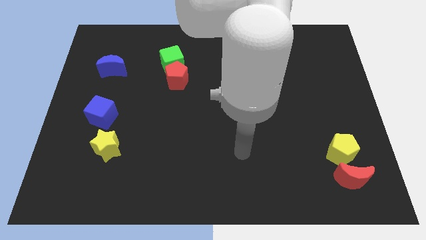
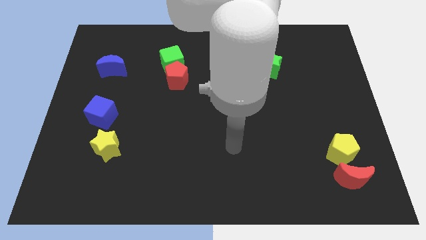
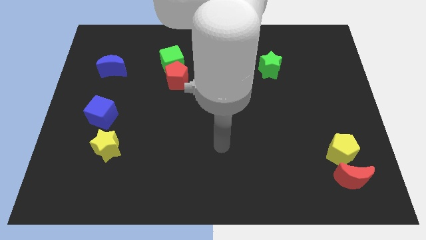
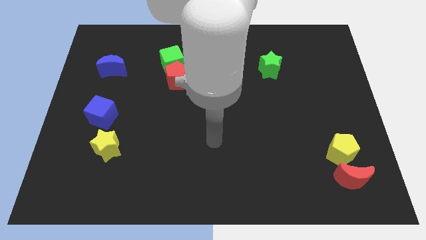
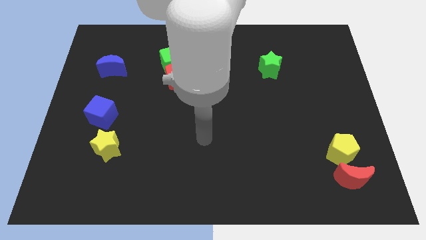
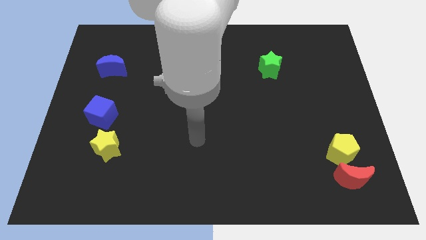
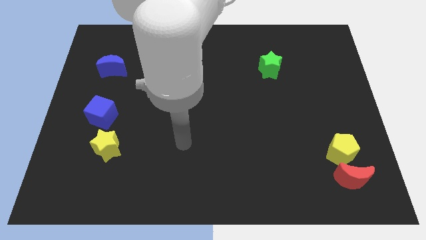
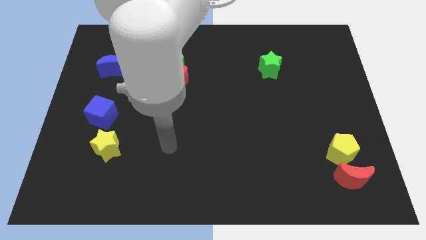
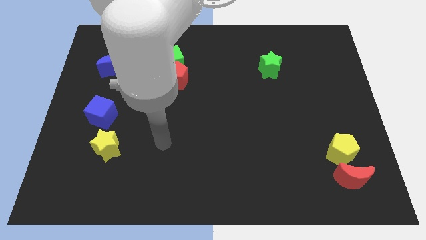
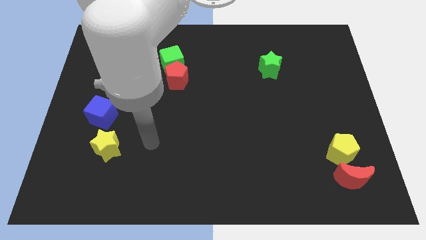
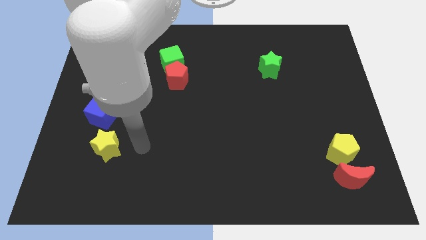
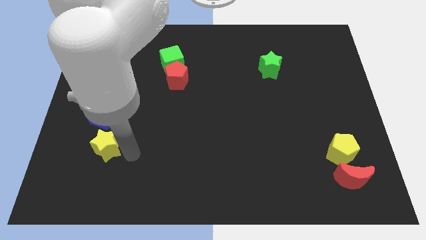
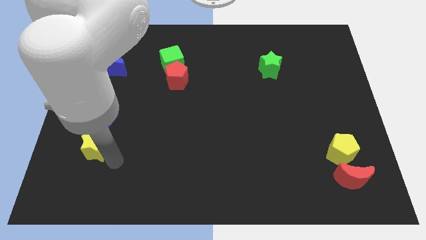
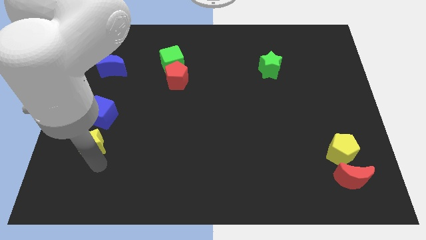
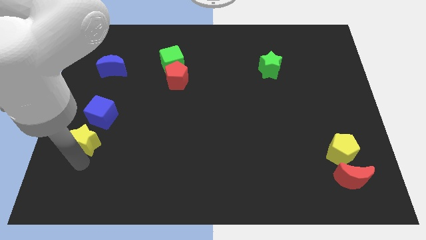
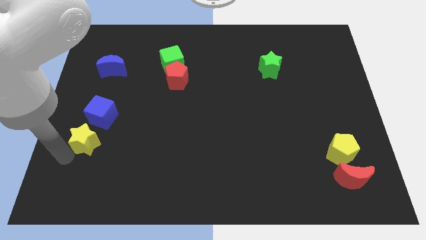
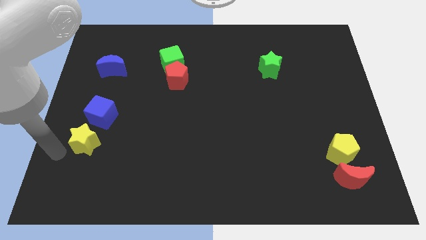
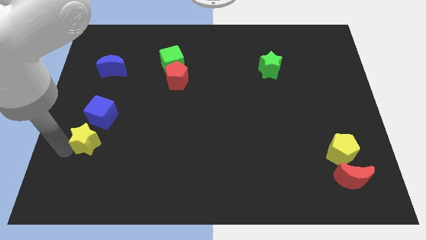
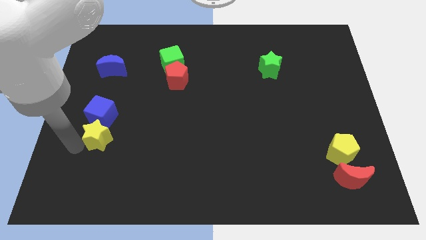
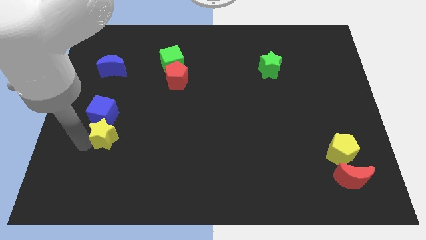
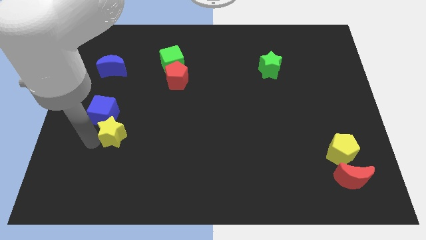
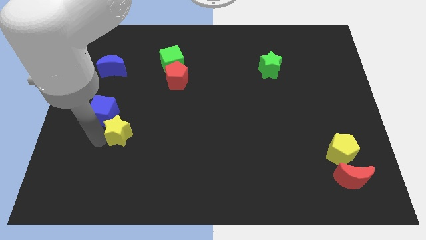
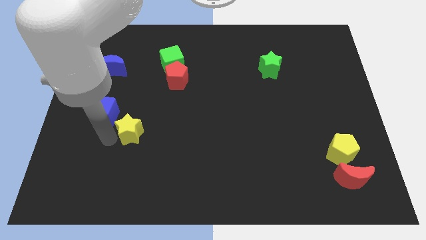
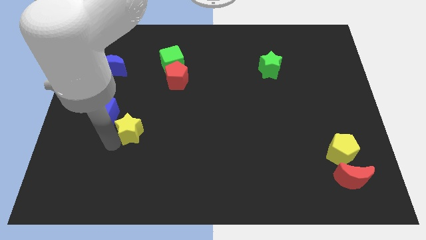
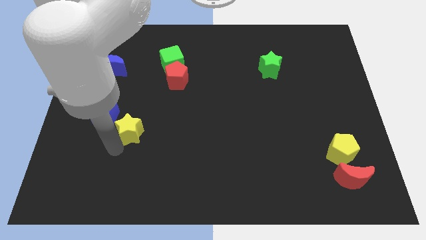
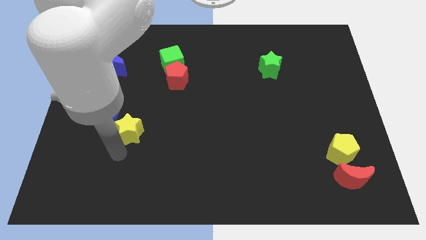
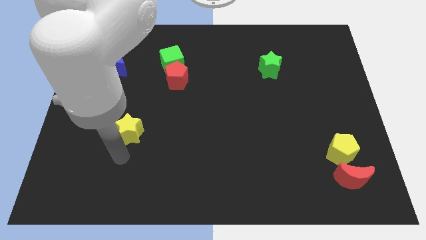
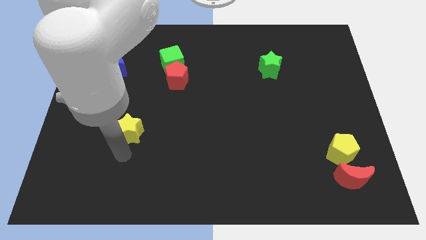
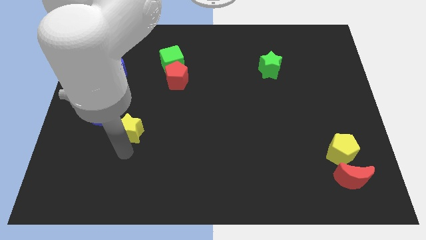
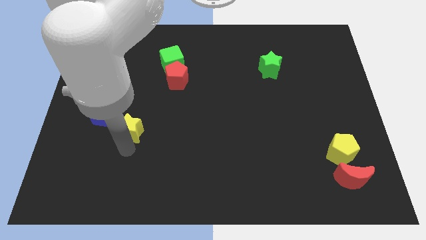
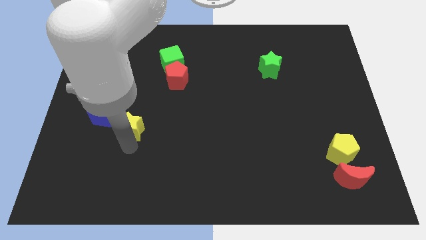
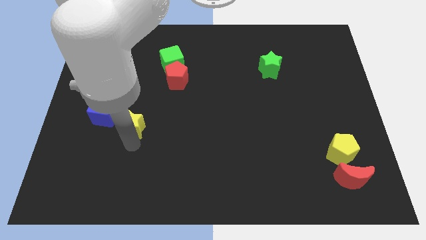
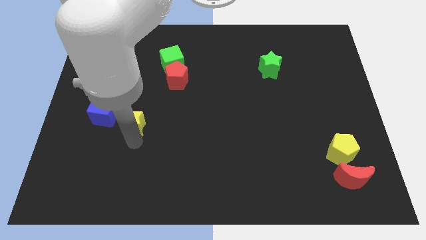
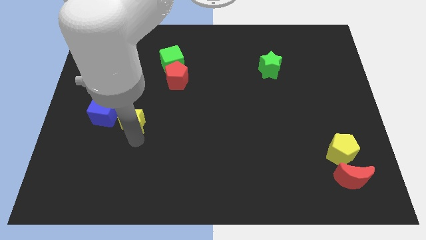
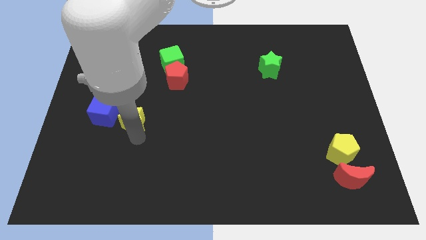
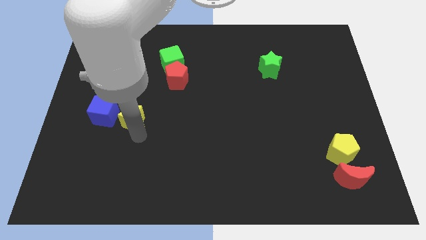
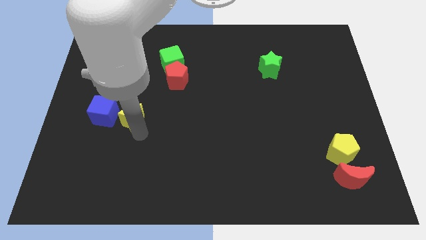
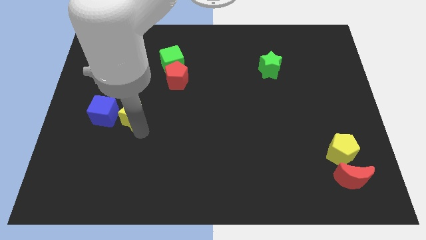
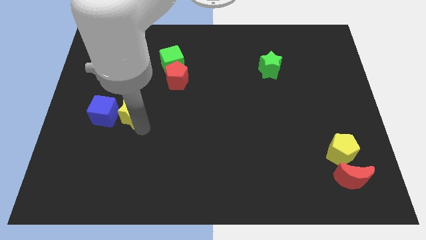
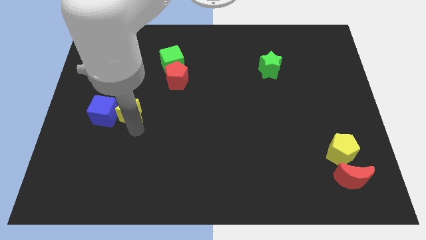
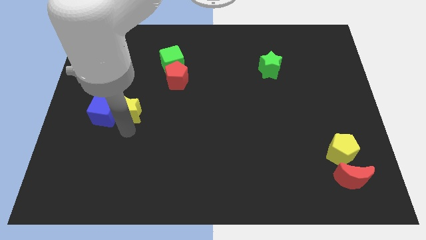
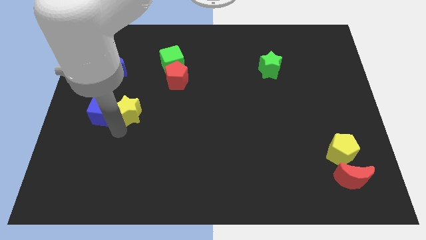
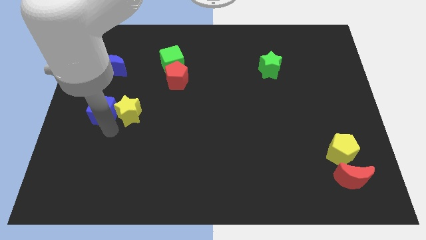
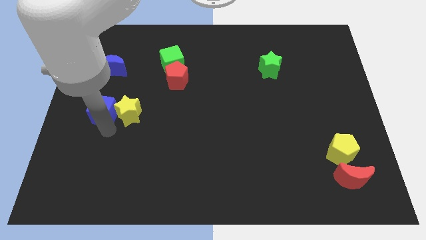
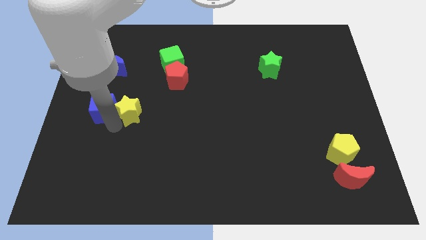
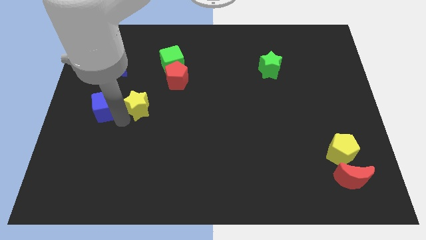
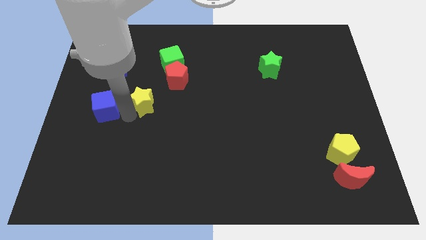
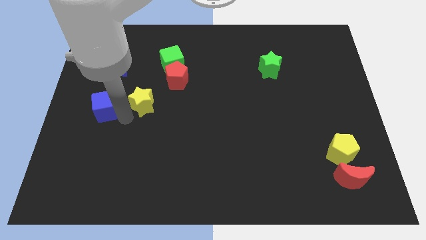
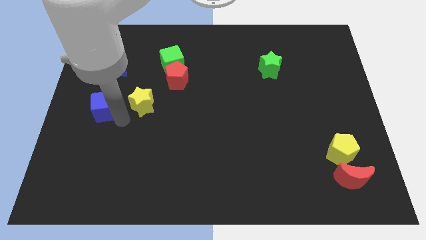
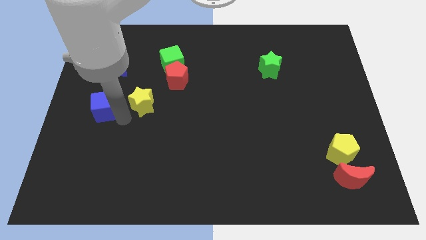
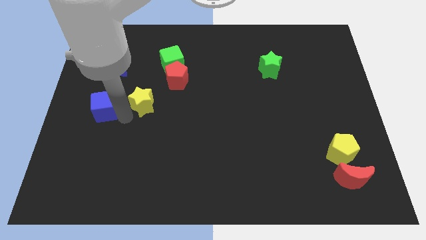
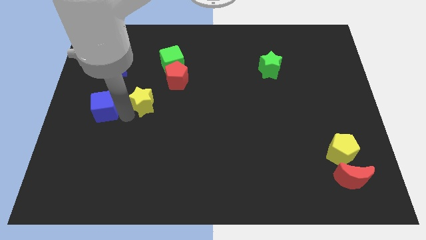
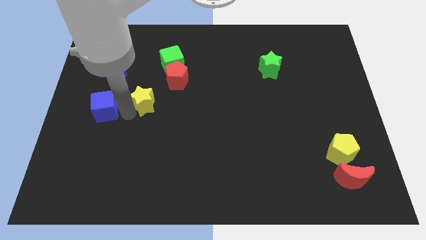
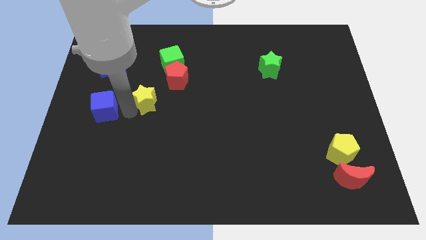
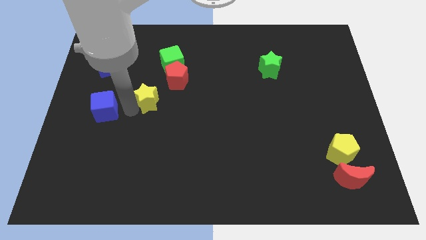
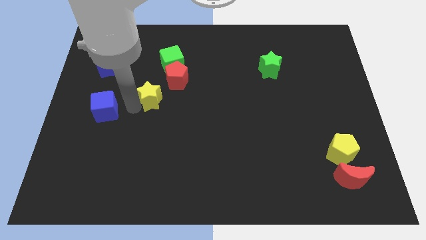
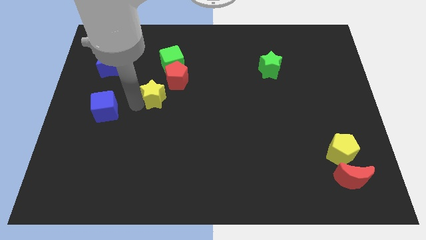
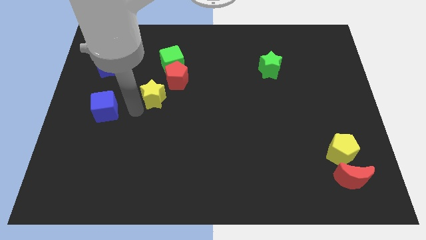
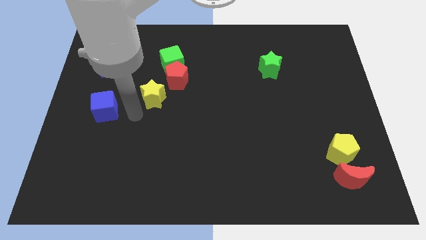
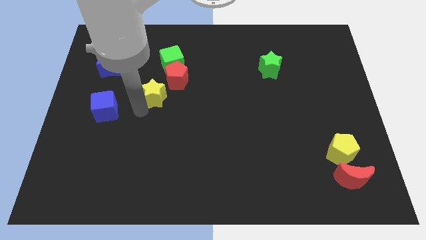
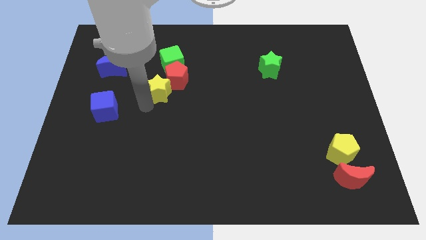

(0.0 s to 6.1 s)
push the yellow star to the red pentagon

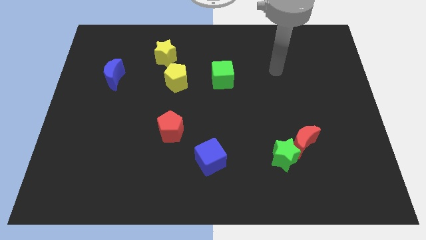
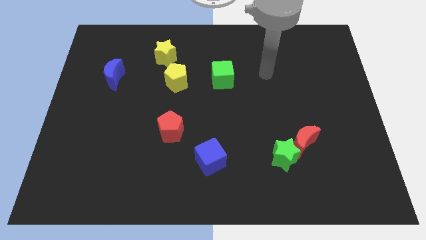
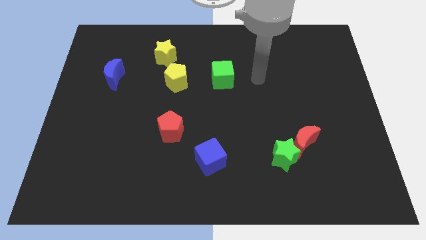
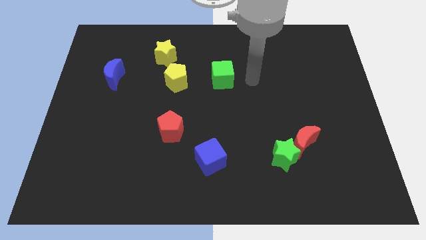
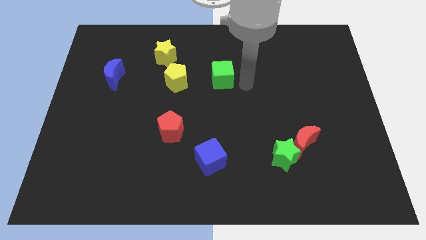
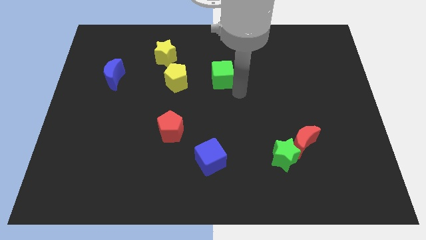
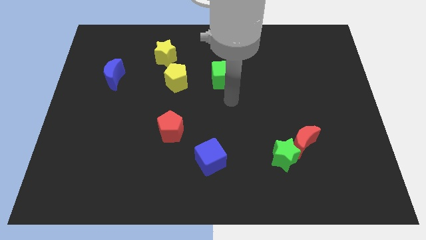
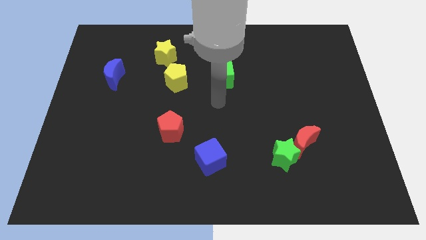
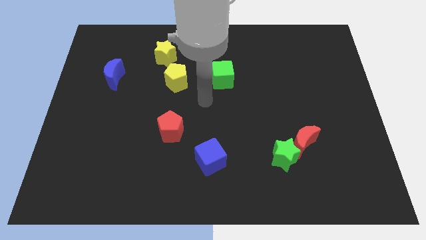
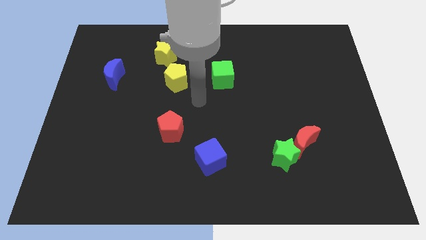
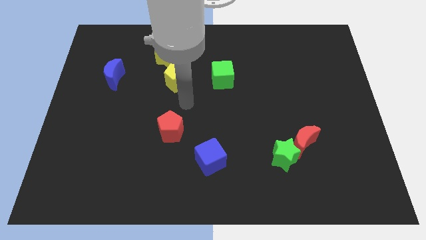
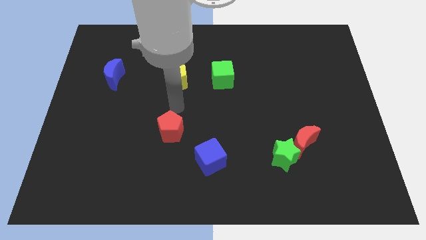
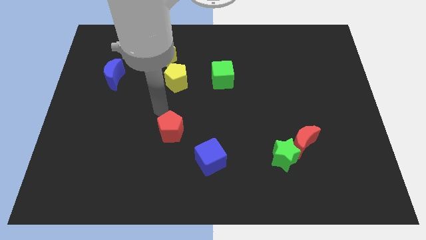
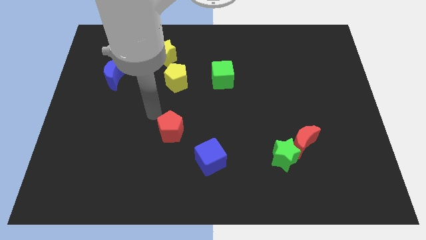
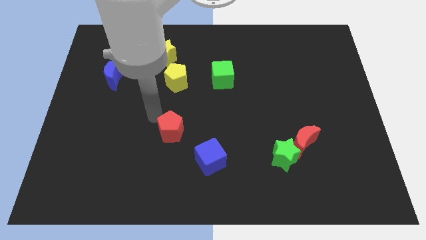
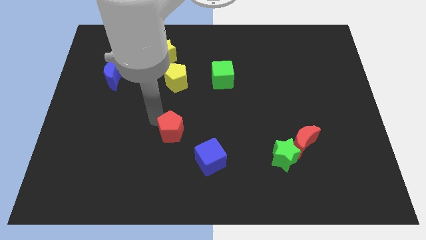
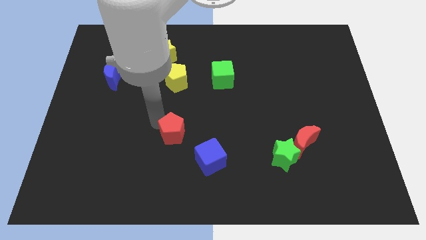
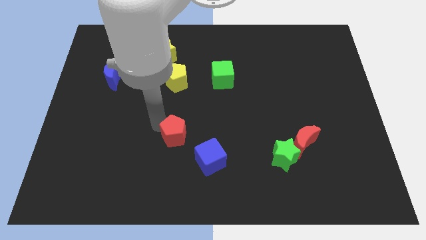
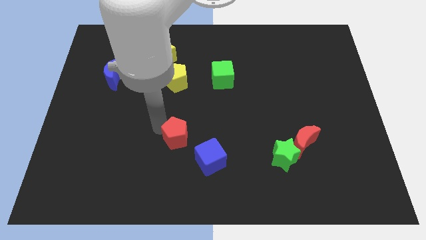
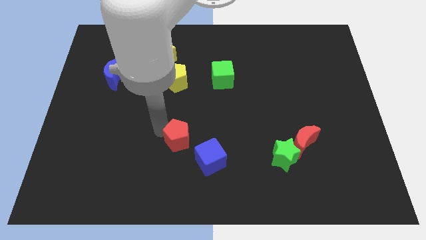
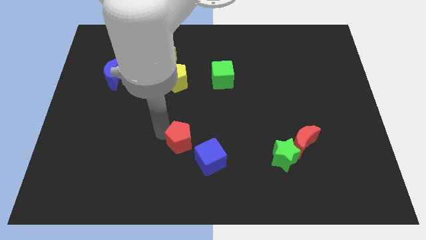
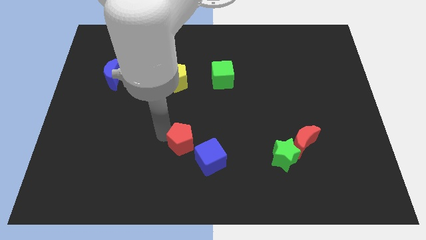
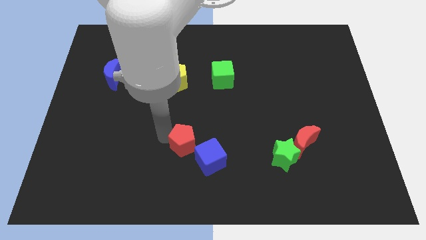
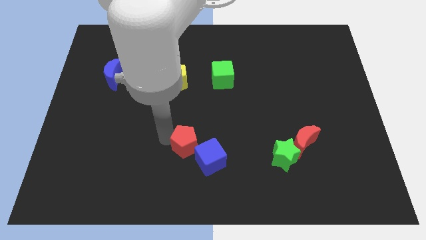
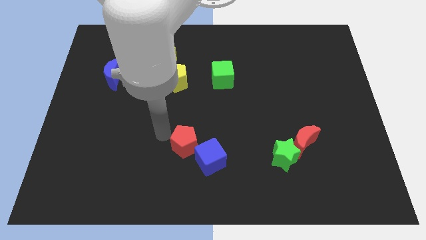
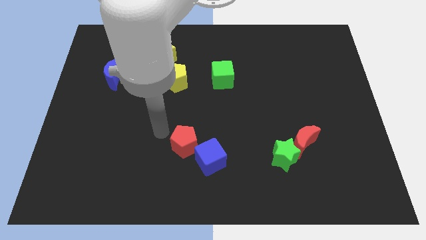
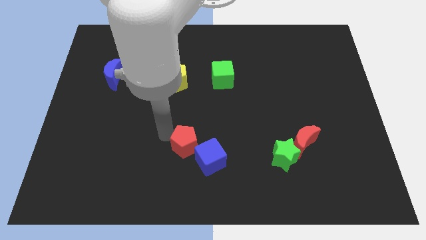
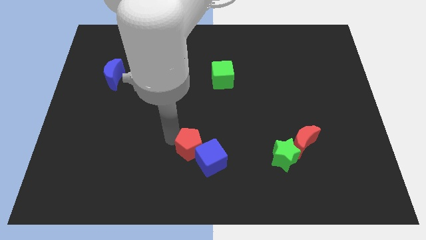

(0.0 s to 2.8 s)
move the red pentagon to the blue cube
